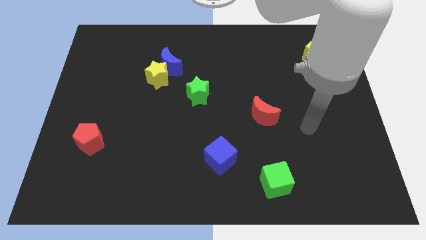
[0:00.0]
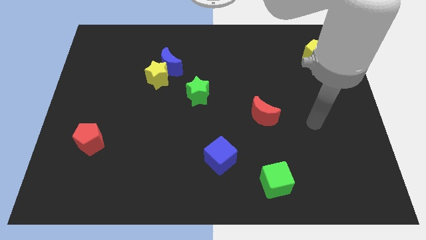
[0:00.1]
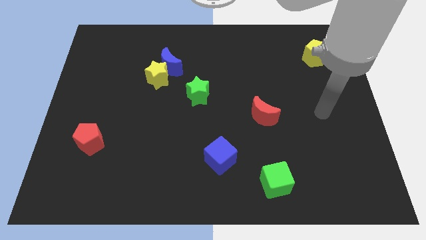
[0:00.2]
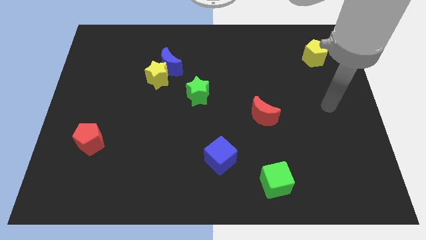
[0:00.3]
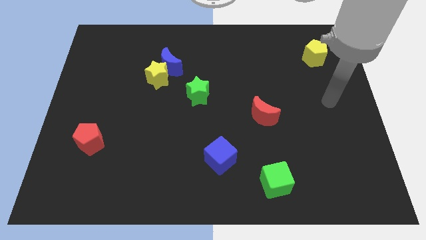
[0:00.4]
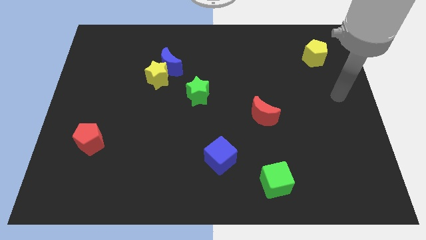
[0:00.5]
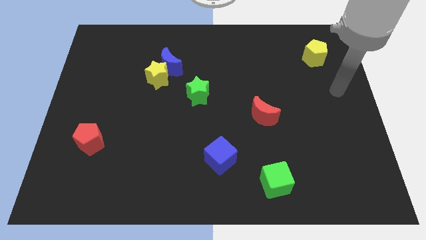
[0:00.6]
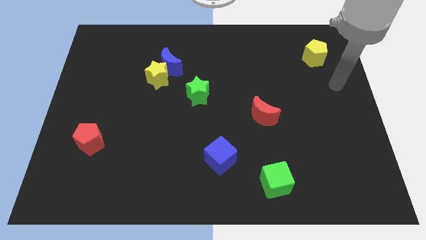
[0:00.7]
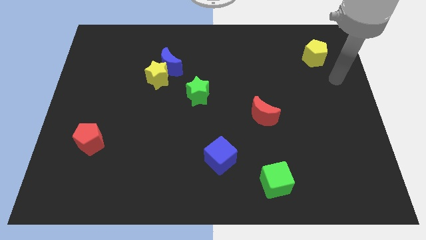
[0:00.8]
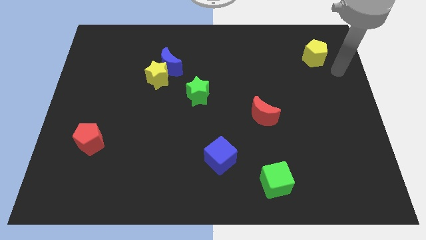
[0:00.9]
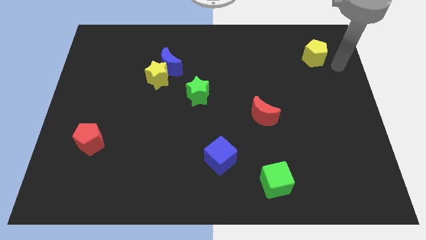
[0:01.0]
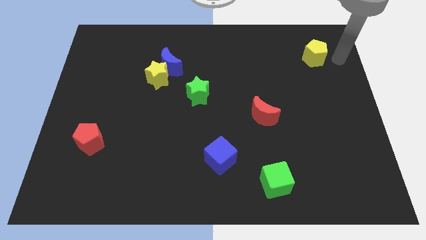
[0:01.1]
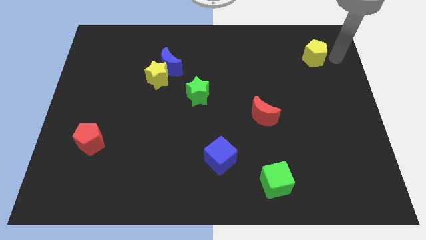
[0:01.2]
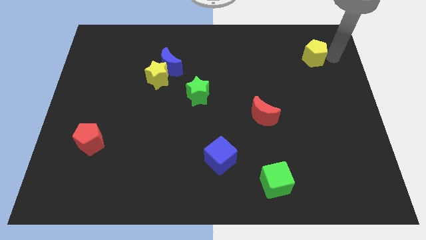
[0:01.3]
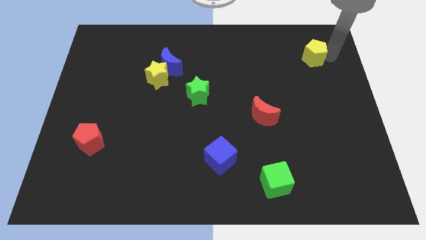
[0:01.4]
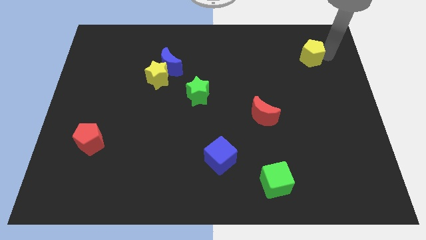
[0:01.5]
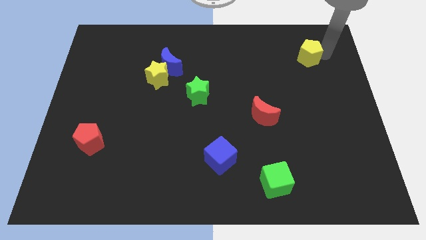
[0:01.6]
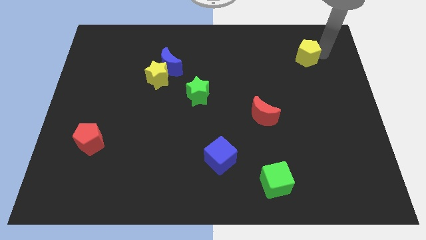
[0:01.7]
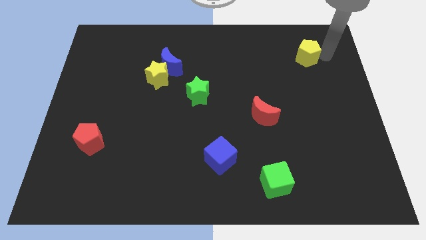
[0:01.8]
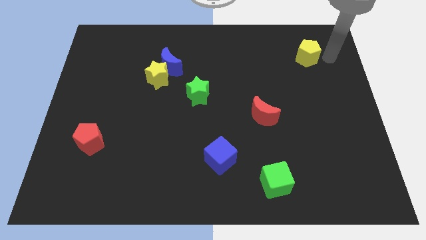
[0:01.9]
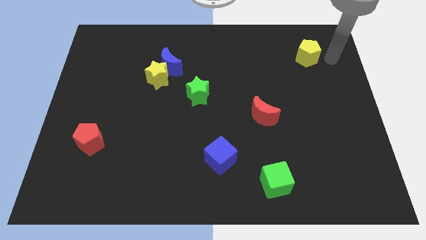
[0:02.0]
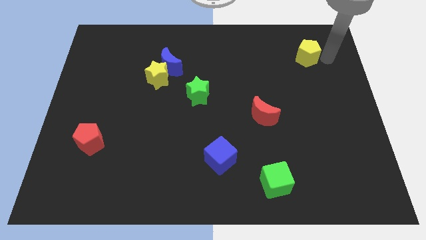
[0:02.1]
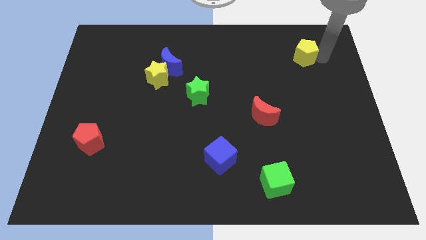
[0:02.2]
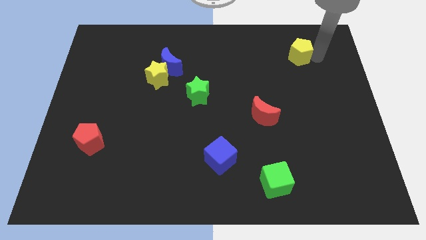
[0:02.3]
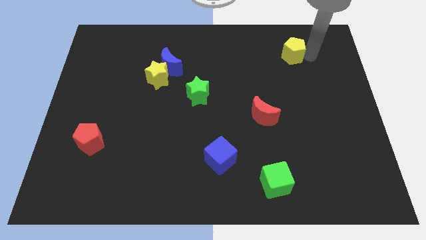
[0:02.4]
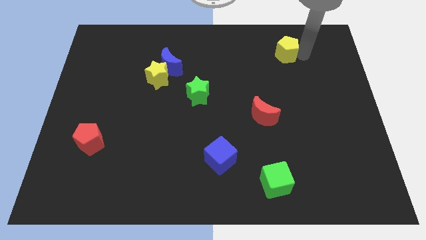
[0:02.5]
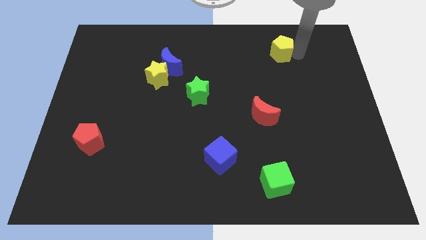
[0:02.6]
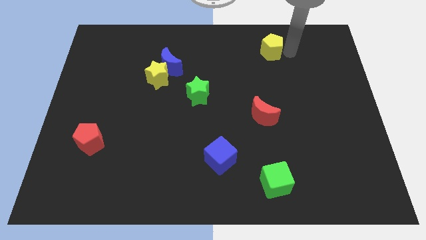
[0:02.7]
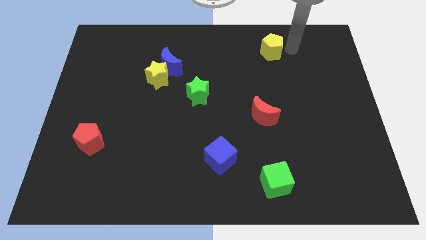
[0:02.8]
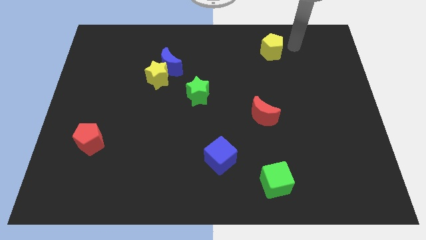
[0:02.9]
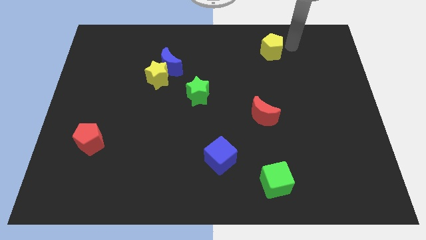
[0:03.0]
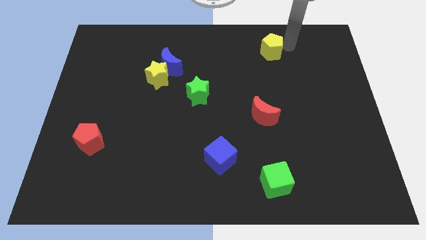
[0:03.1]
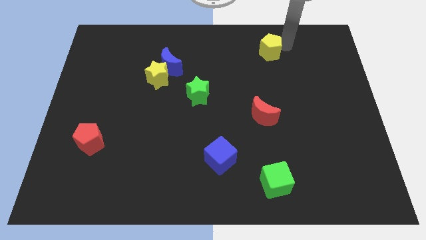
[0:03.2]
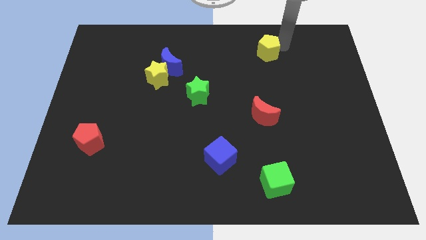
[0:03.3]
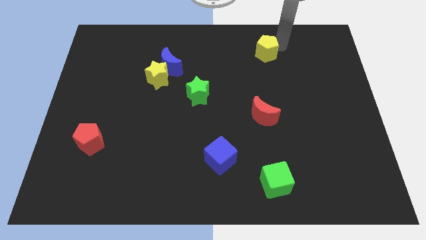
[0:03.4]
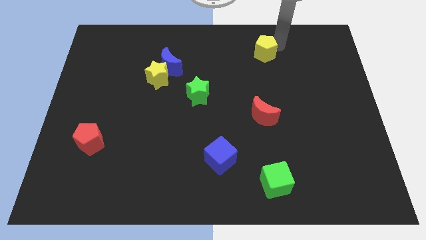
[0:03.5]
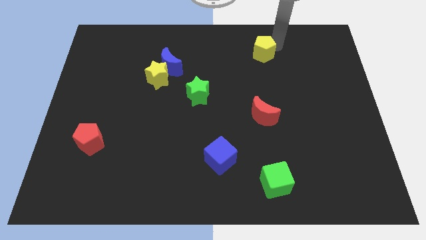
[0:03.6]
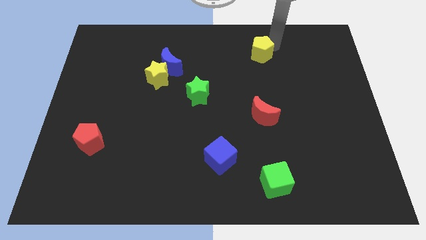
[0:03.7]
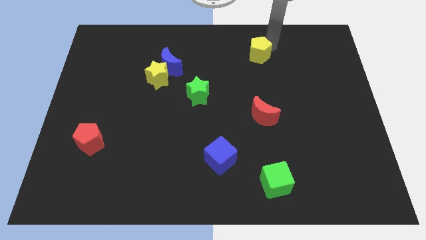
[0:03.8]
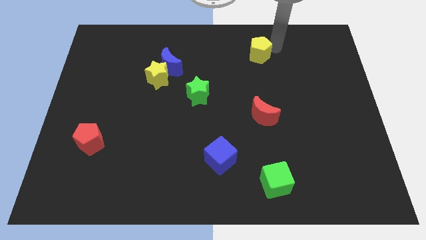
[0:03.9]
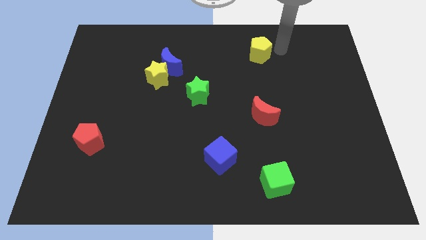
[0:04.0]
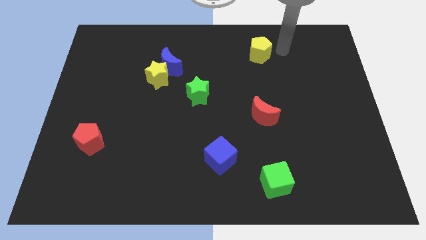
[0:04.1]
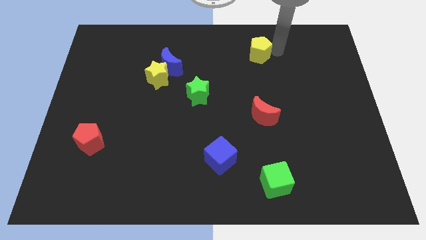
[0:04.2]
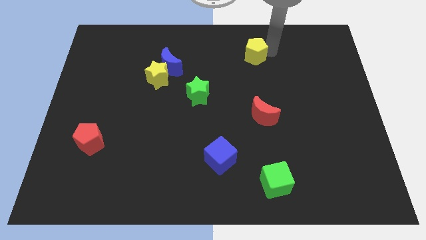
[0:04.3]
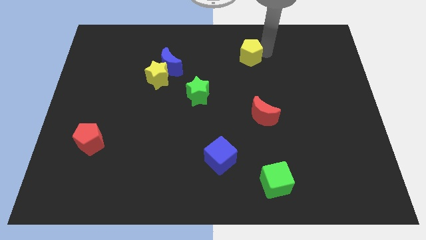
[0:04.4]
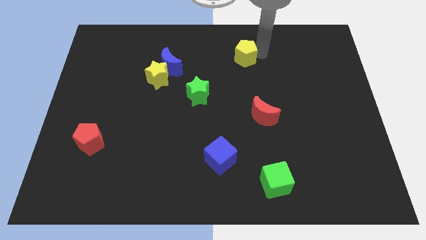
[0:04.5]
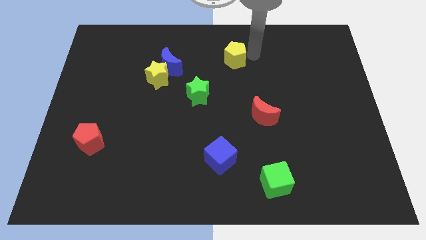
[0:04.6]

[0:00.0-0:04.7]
slide the yellow pentagon to the left

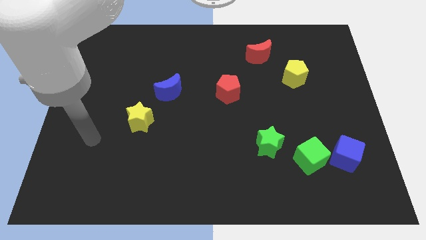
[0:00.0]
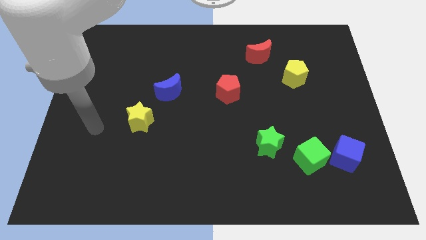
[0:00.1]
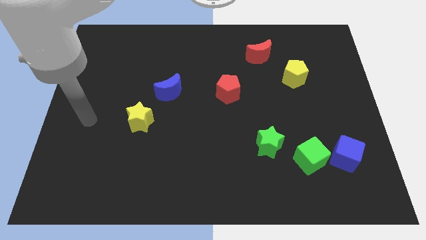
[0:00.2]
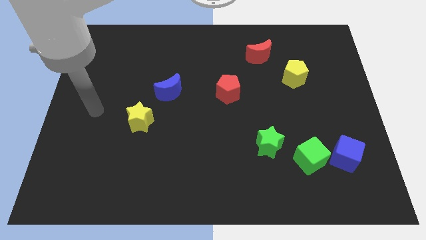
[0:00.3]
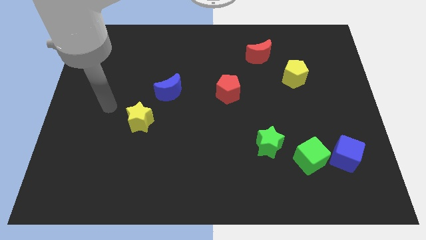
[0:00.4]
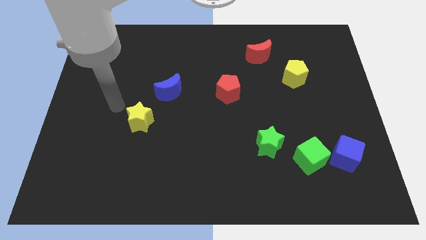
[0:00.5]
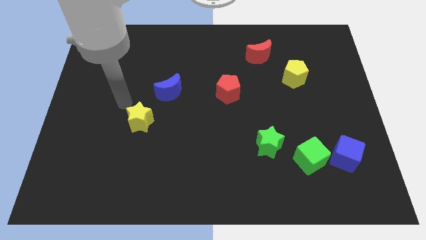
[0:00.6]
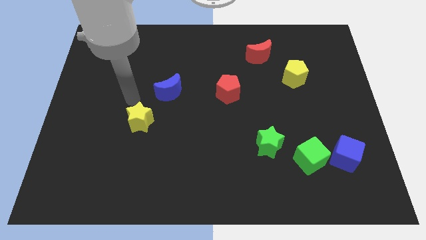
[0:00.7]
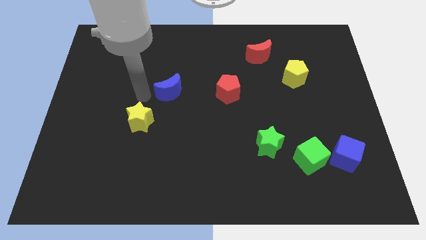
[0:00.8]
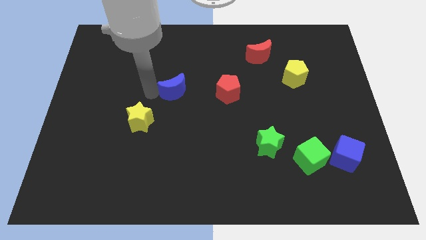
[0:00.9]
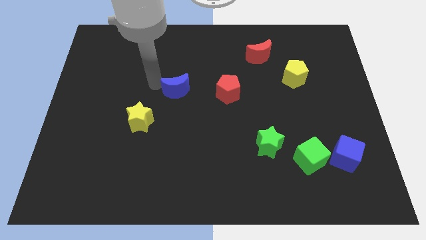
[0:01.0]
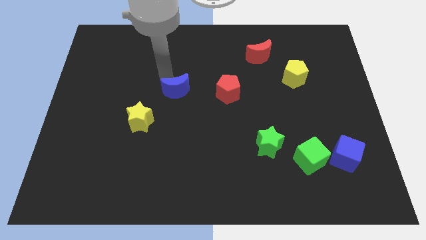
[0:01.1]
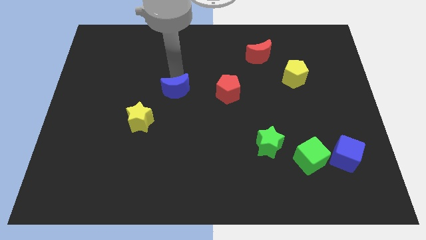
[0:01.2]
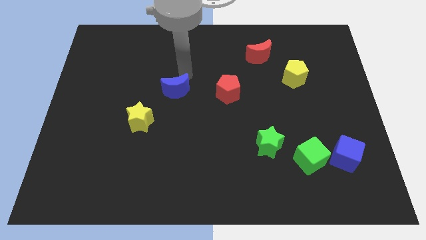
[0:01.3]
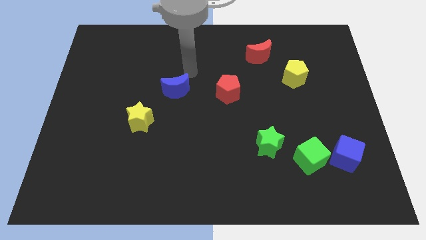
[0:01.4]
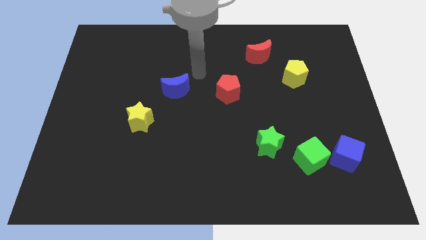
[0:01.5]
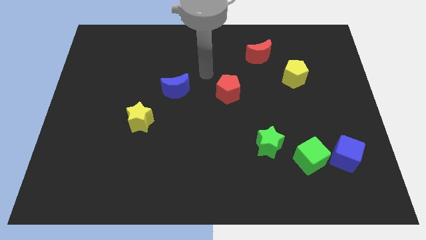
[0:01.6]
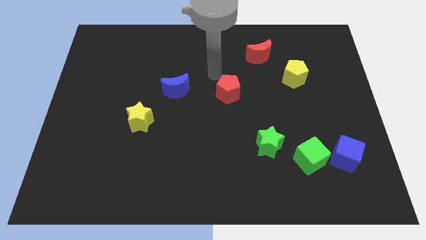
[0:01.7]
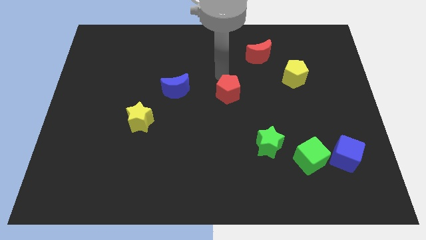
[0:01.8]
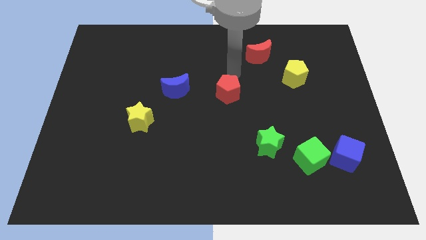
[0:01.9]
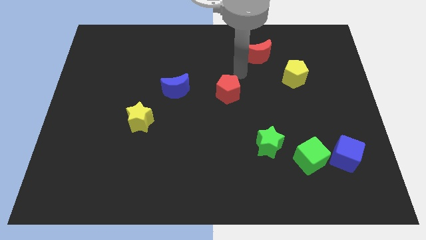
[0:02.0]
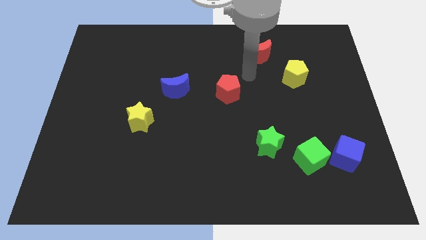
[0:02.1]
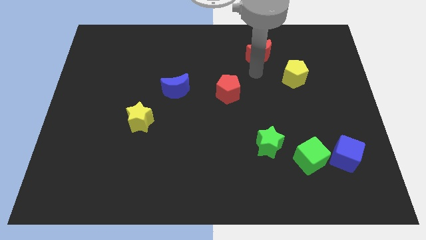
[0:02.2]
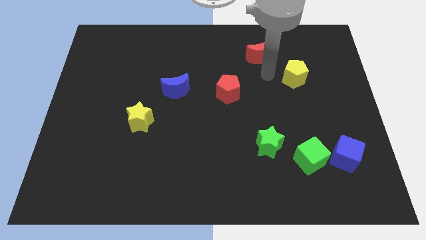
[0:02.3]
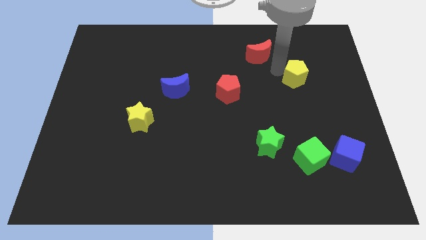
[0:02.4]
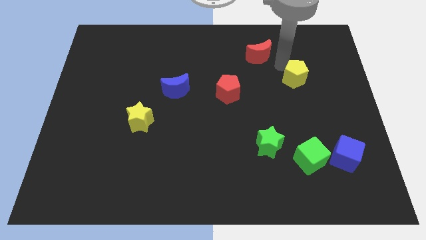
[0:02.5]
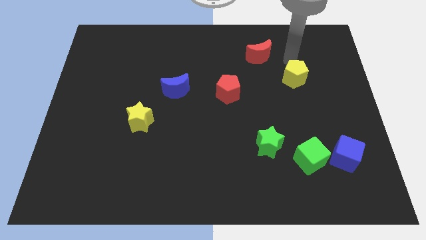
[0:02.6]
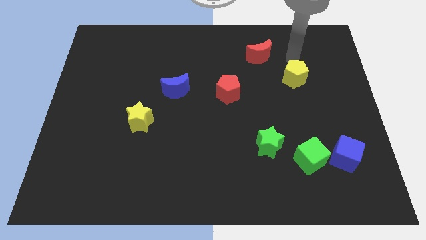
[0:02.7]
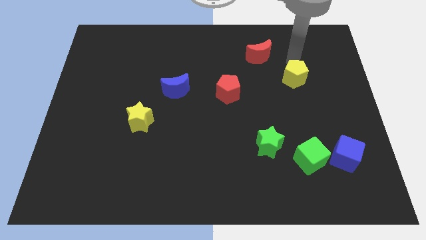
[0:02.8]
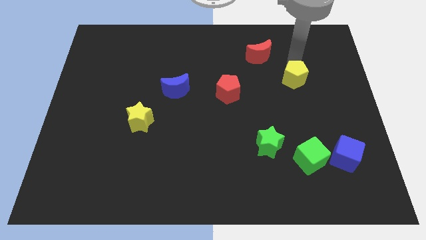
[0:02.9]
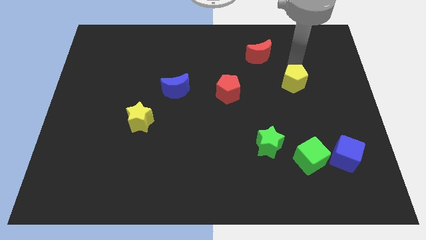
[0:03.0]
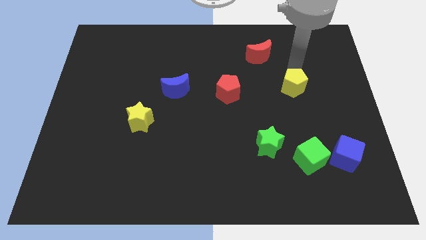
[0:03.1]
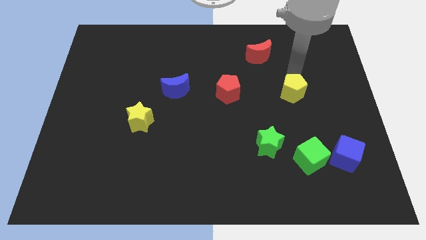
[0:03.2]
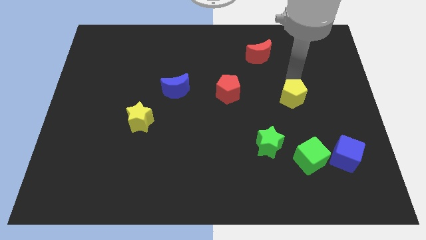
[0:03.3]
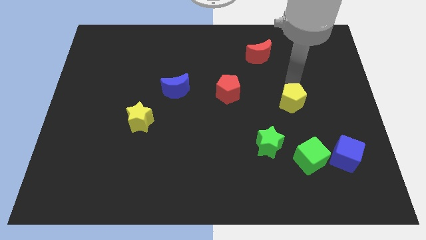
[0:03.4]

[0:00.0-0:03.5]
slightly move the yellow pentagon downwards

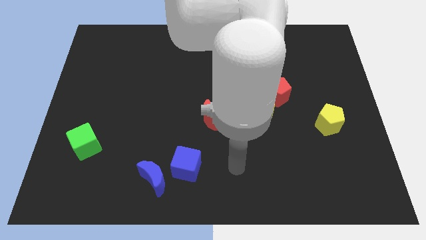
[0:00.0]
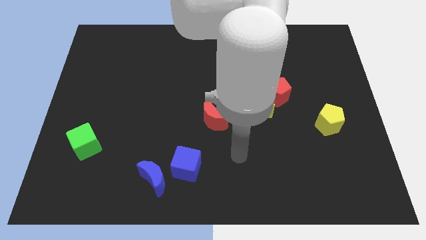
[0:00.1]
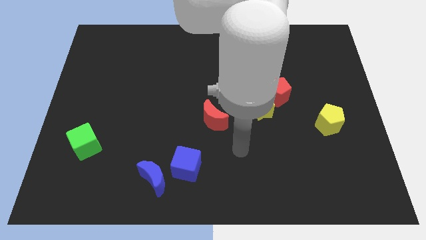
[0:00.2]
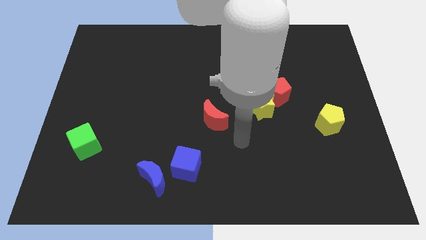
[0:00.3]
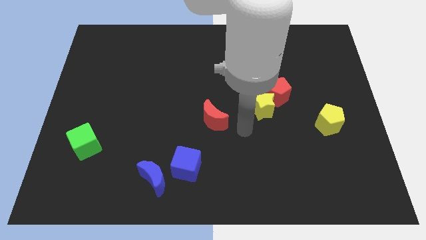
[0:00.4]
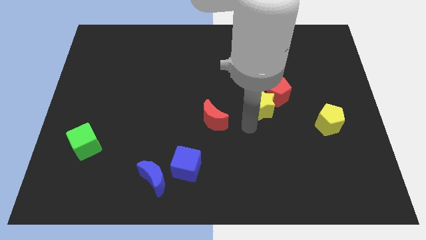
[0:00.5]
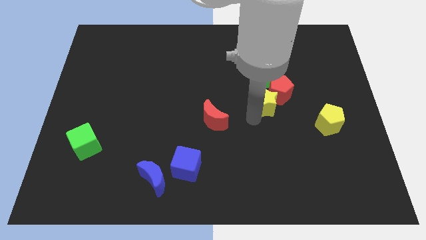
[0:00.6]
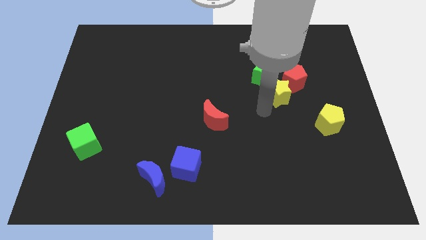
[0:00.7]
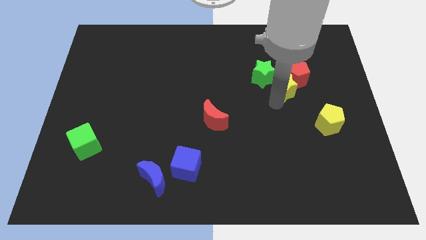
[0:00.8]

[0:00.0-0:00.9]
slide the red pentagon upwards and right somewhat
